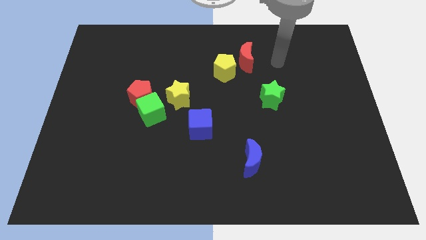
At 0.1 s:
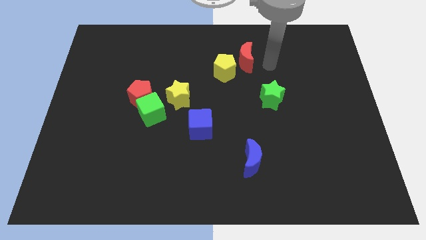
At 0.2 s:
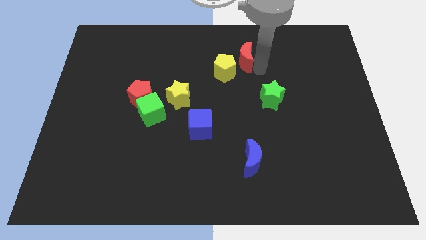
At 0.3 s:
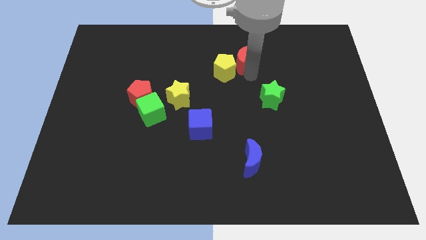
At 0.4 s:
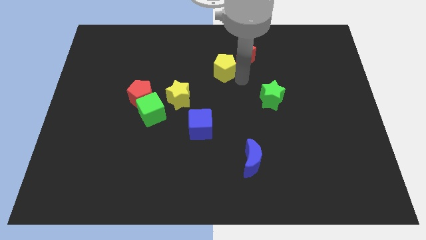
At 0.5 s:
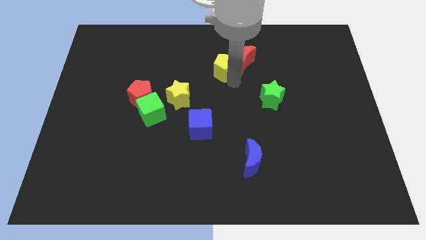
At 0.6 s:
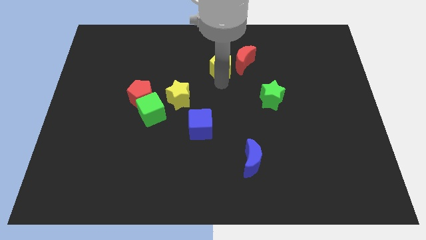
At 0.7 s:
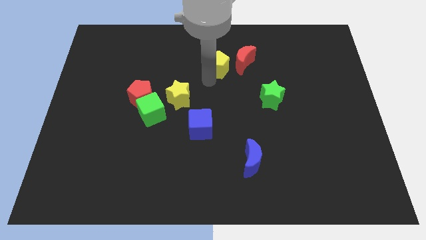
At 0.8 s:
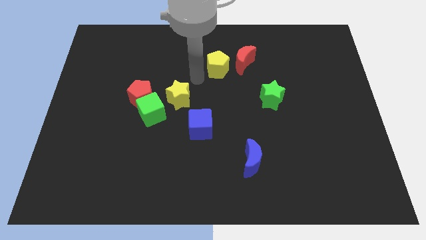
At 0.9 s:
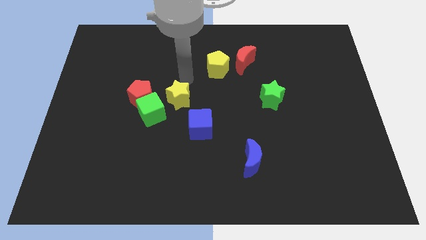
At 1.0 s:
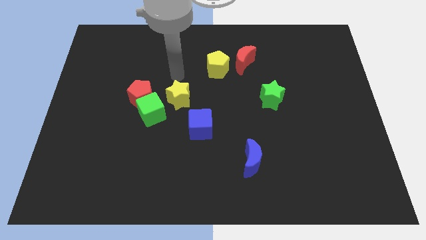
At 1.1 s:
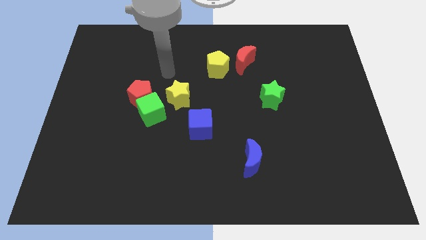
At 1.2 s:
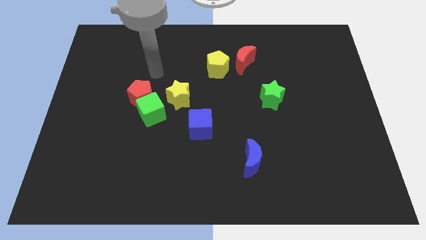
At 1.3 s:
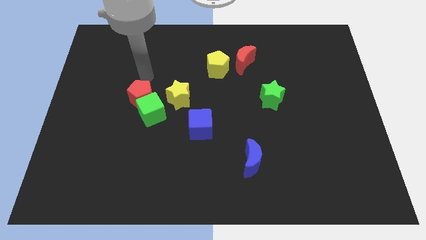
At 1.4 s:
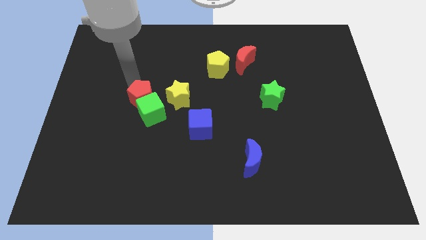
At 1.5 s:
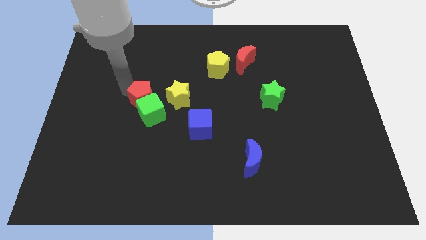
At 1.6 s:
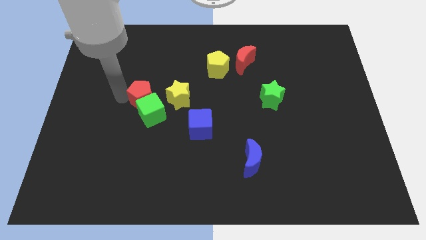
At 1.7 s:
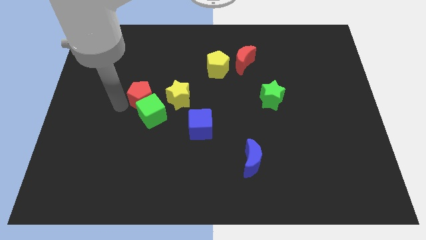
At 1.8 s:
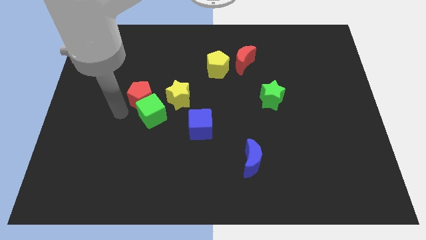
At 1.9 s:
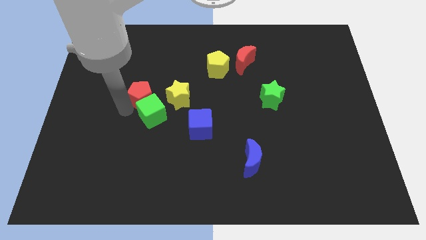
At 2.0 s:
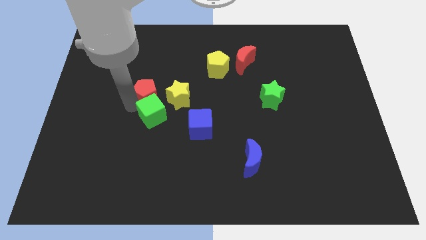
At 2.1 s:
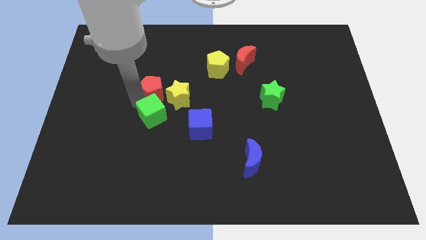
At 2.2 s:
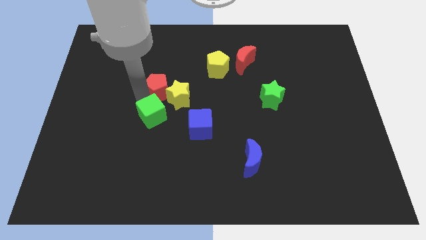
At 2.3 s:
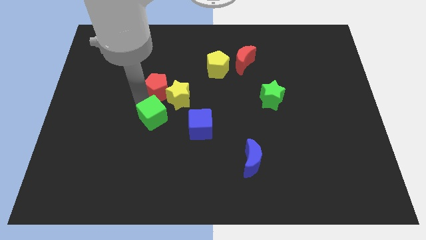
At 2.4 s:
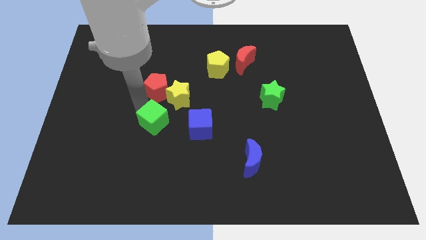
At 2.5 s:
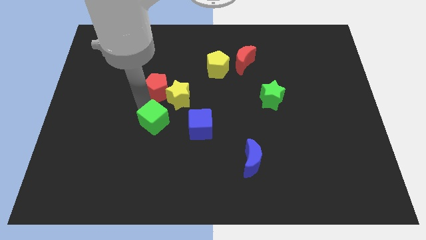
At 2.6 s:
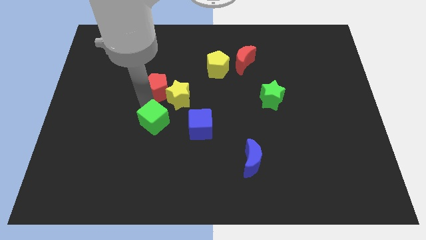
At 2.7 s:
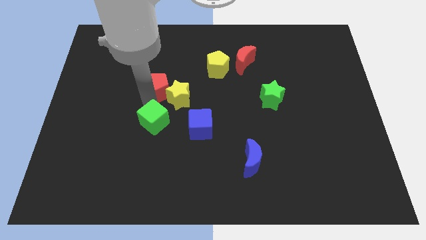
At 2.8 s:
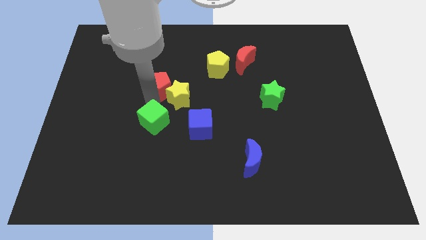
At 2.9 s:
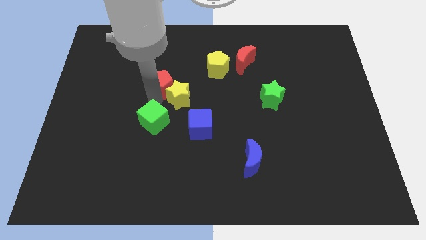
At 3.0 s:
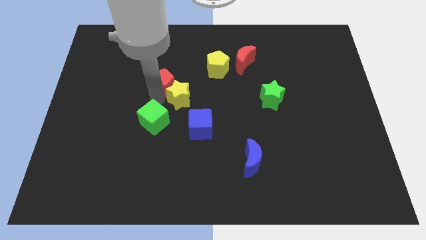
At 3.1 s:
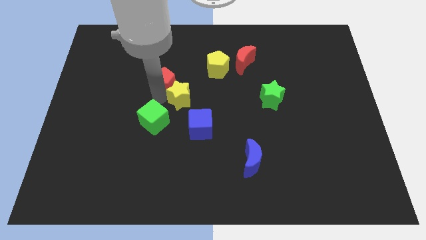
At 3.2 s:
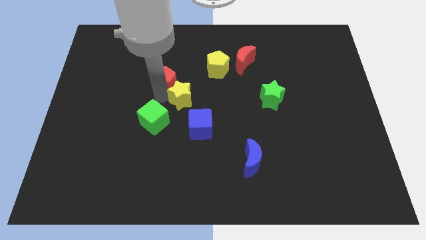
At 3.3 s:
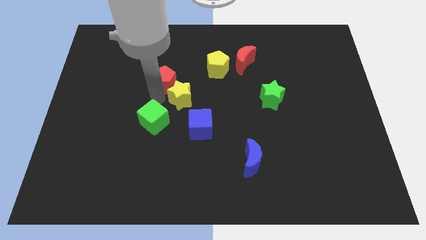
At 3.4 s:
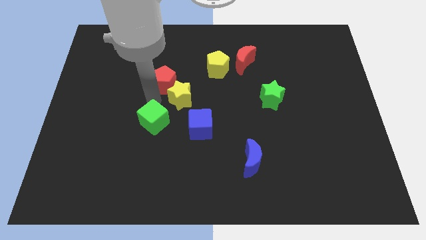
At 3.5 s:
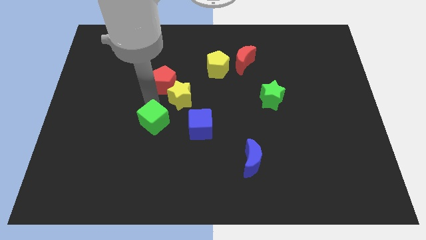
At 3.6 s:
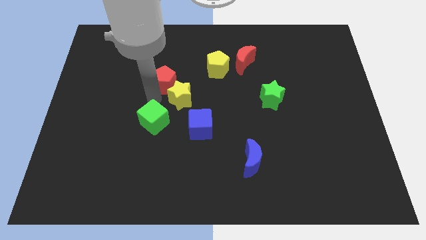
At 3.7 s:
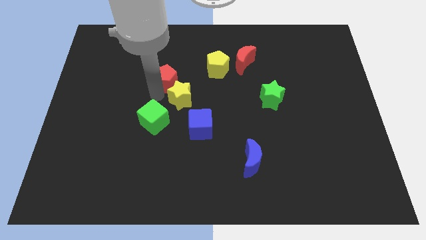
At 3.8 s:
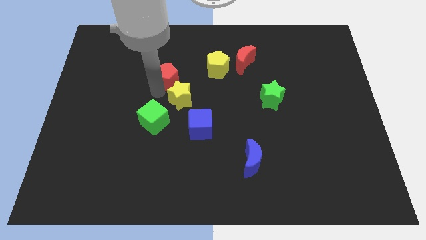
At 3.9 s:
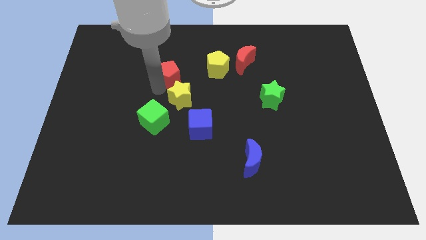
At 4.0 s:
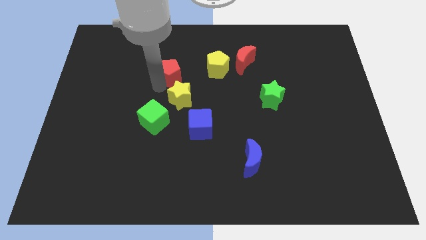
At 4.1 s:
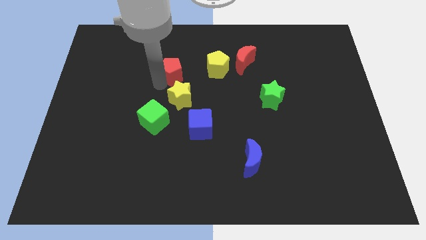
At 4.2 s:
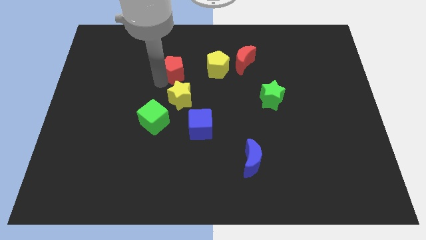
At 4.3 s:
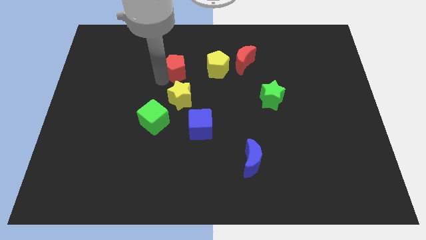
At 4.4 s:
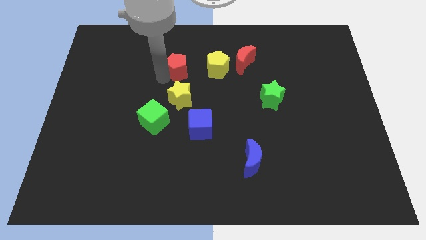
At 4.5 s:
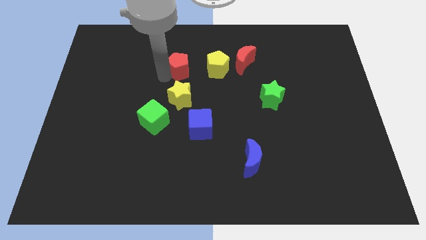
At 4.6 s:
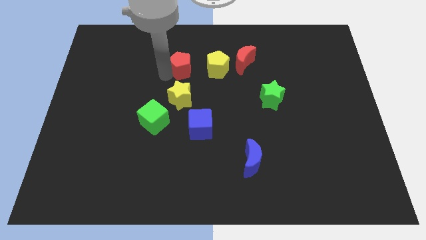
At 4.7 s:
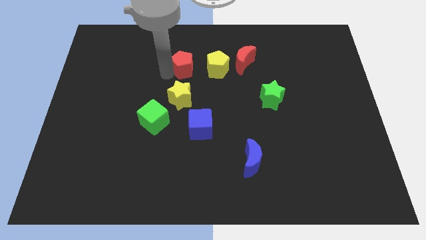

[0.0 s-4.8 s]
slide the red pentagon to the left side of the red moon

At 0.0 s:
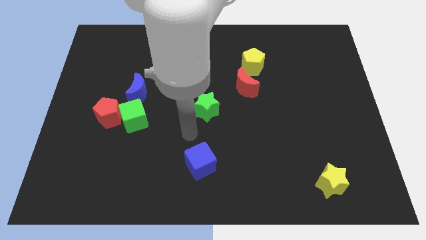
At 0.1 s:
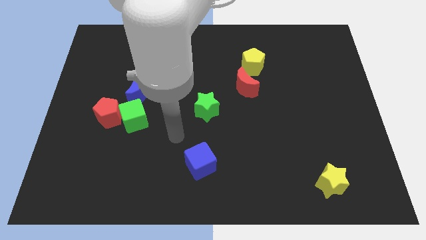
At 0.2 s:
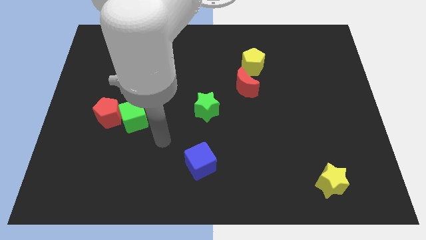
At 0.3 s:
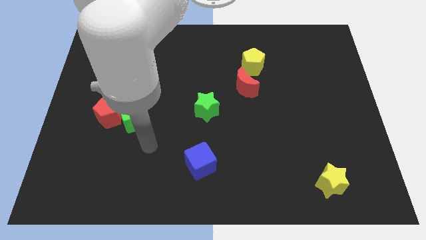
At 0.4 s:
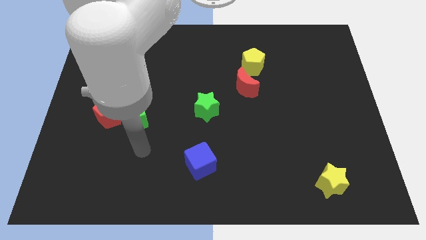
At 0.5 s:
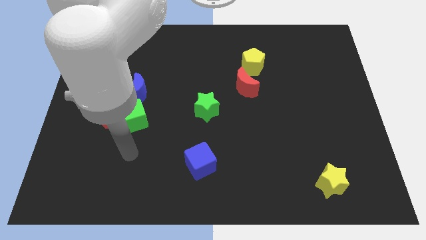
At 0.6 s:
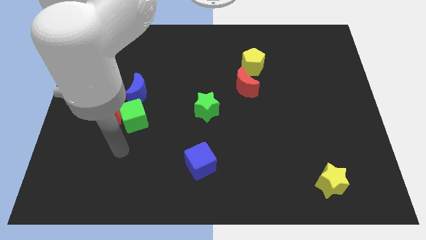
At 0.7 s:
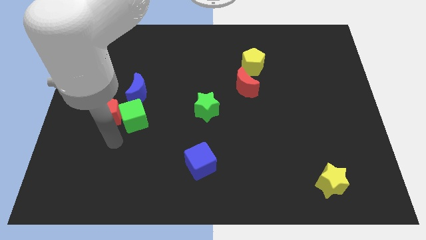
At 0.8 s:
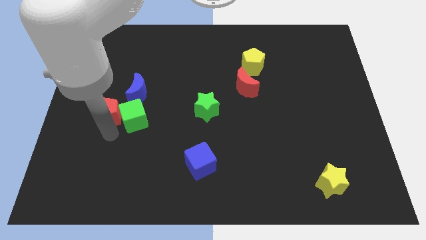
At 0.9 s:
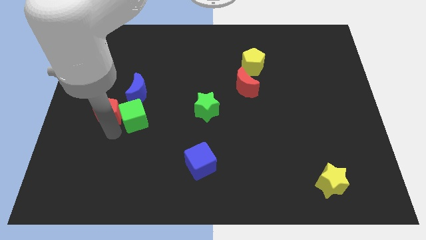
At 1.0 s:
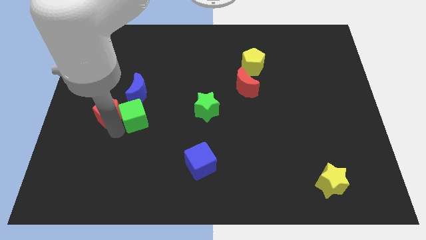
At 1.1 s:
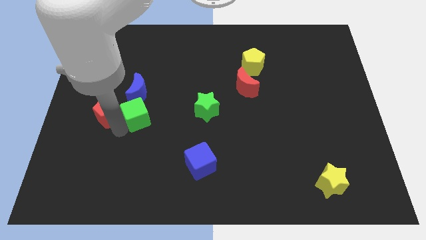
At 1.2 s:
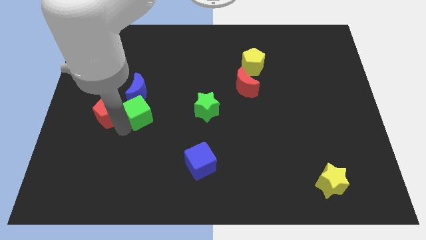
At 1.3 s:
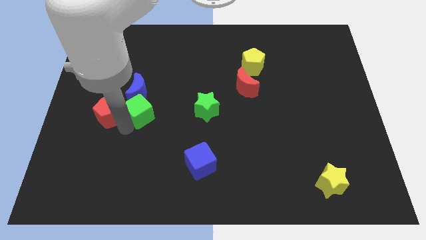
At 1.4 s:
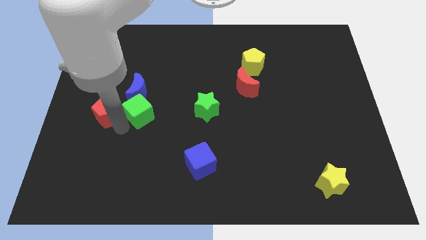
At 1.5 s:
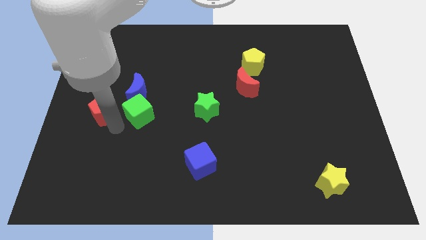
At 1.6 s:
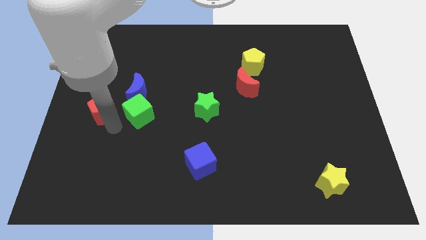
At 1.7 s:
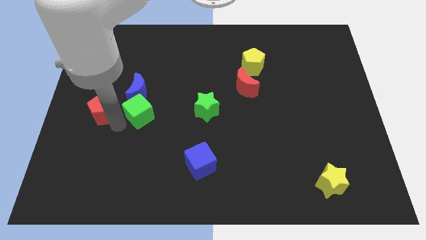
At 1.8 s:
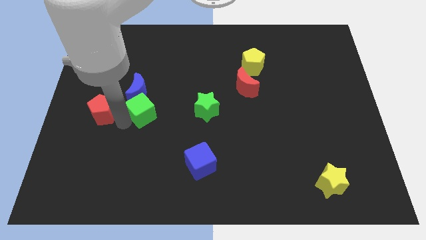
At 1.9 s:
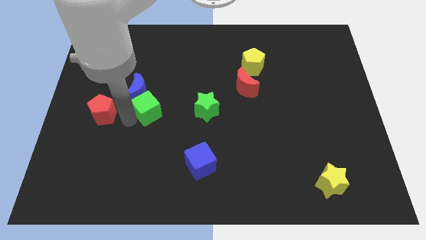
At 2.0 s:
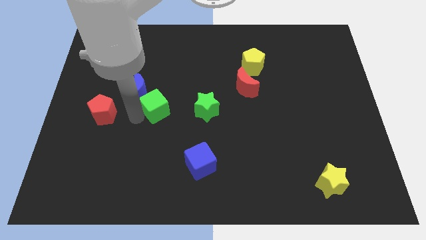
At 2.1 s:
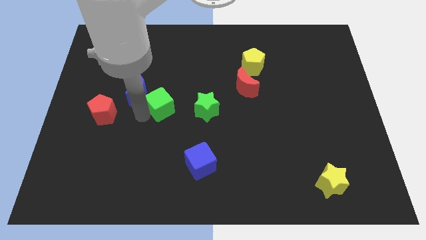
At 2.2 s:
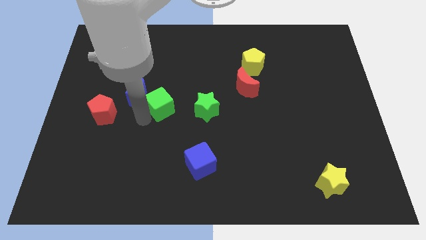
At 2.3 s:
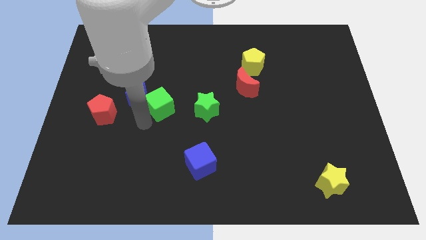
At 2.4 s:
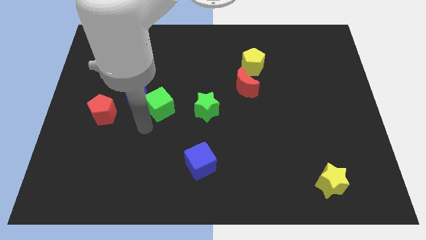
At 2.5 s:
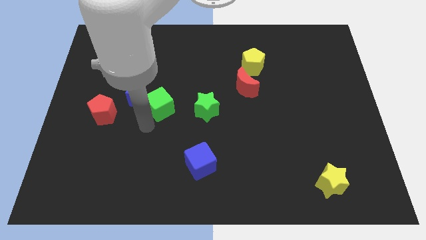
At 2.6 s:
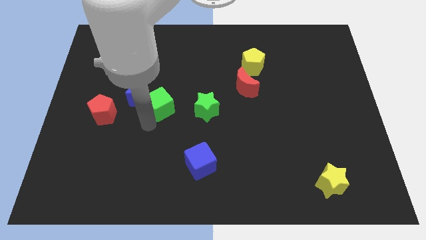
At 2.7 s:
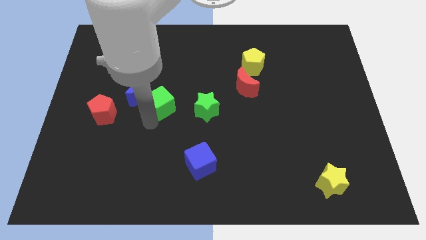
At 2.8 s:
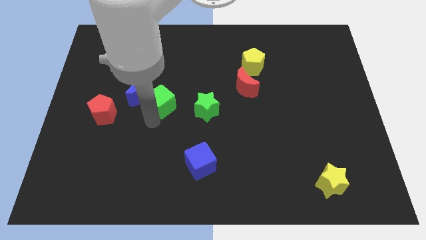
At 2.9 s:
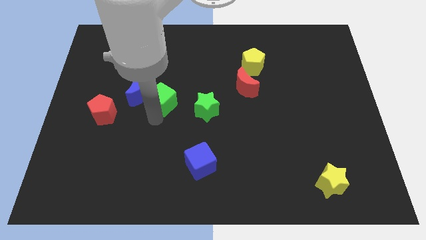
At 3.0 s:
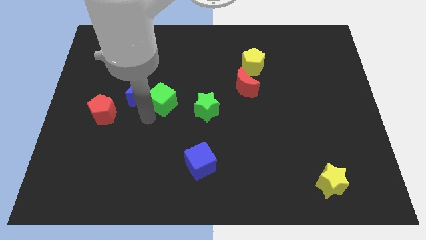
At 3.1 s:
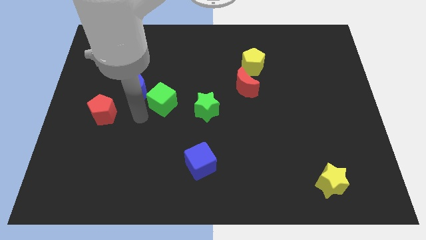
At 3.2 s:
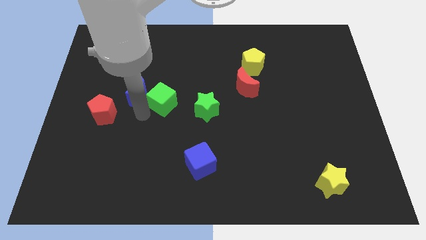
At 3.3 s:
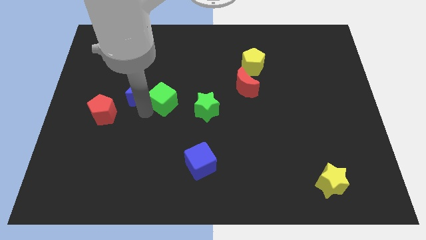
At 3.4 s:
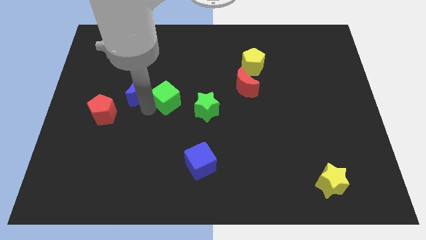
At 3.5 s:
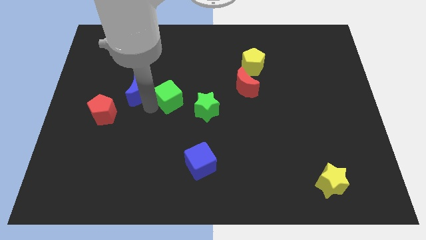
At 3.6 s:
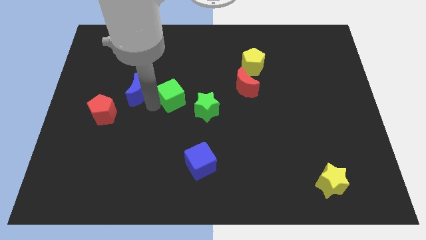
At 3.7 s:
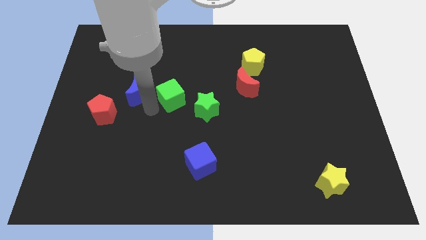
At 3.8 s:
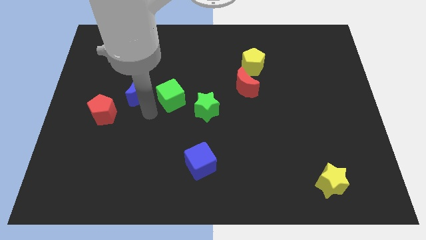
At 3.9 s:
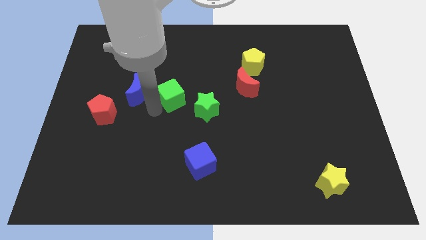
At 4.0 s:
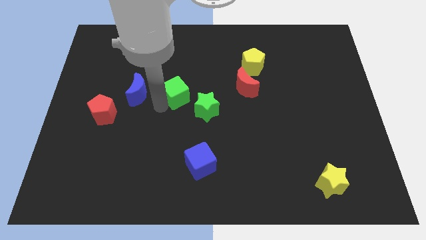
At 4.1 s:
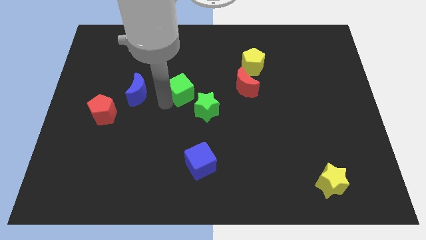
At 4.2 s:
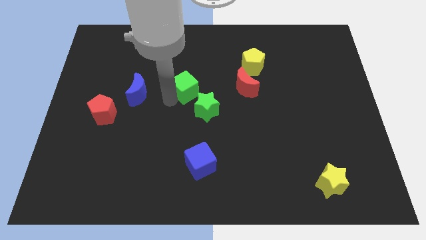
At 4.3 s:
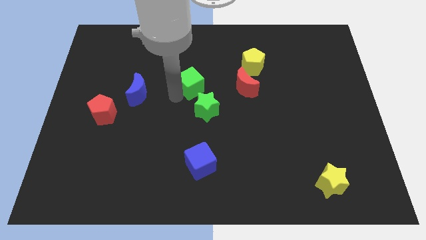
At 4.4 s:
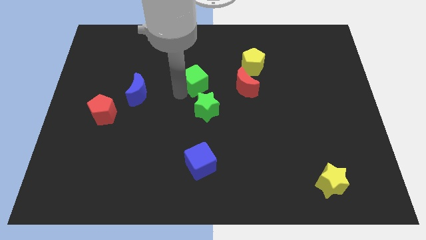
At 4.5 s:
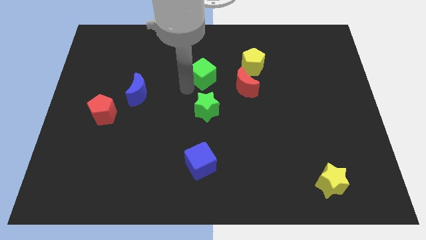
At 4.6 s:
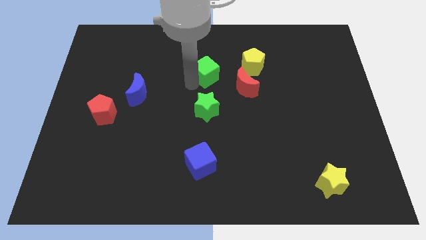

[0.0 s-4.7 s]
move the green cube to the top left of the red moon
